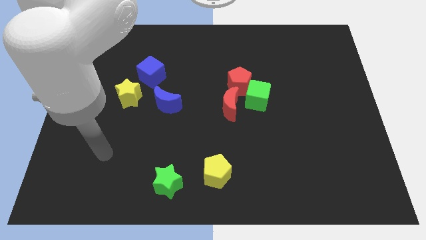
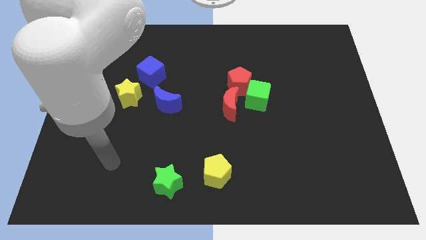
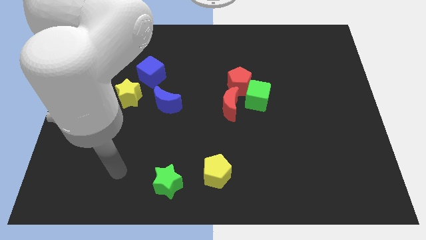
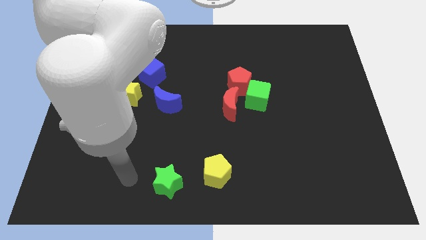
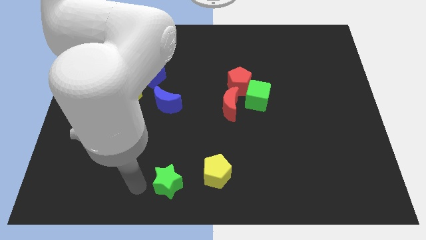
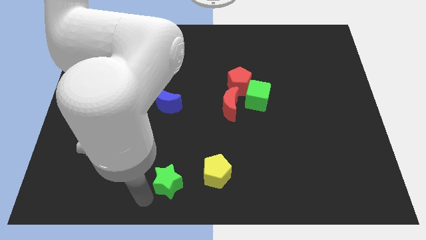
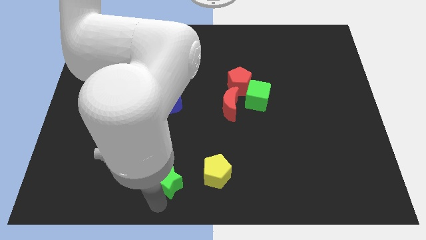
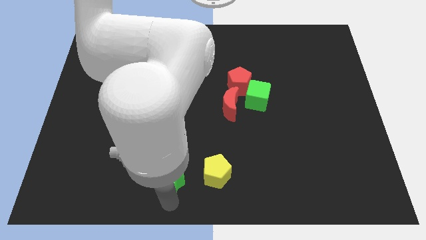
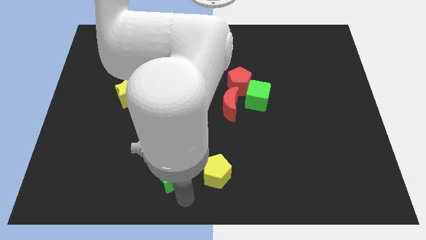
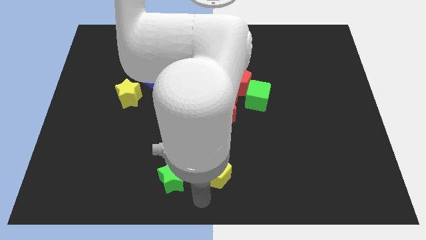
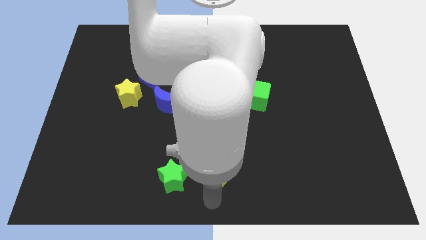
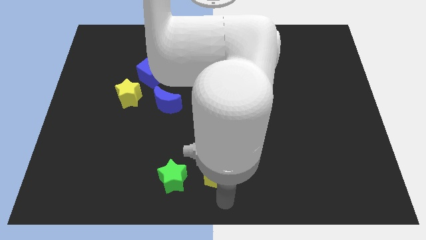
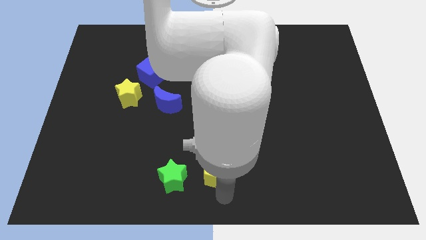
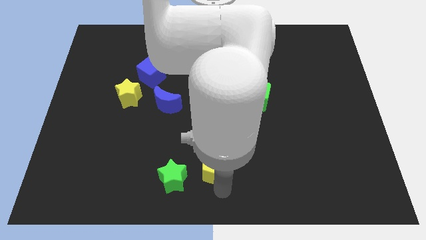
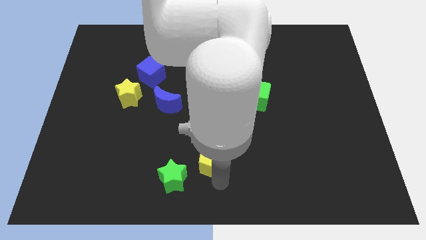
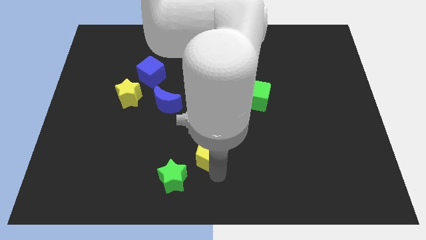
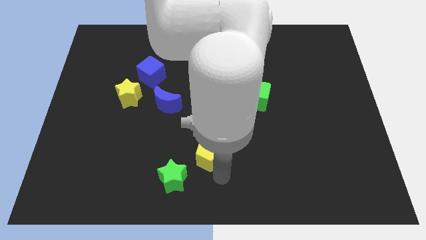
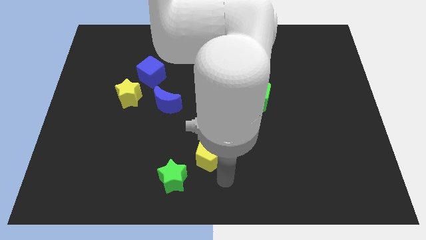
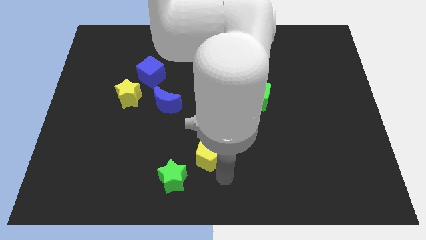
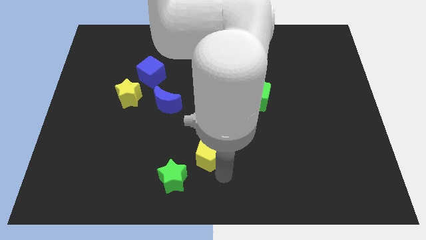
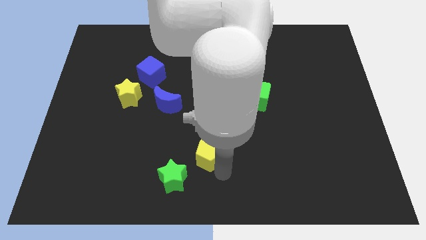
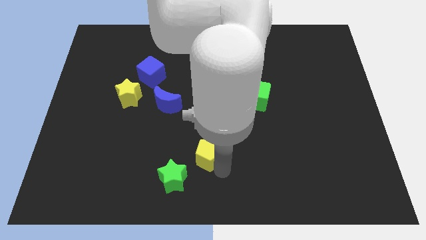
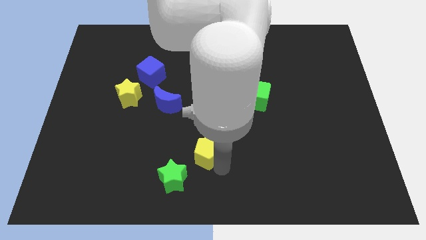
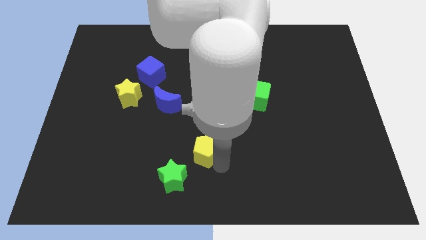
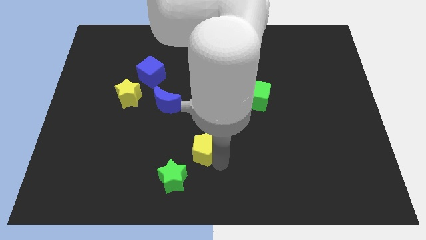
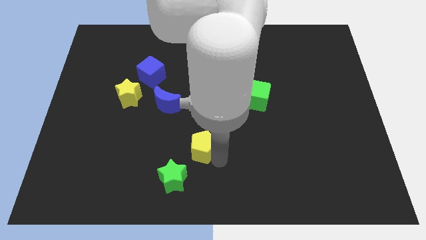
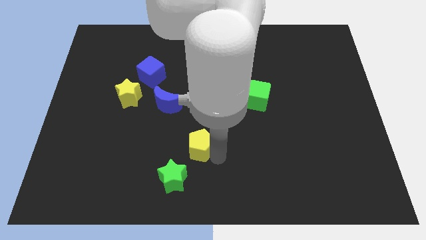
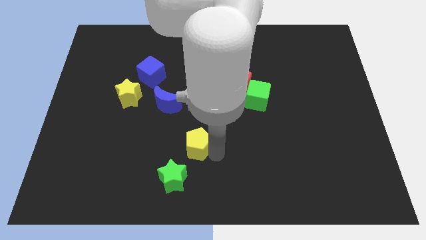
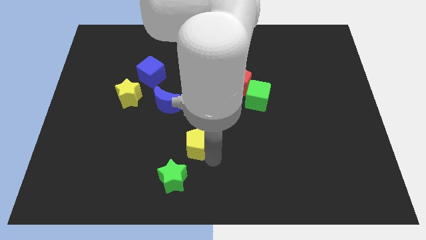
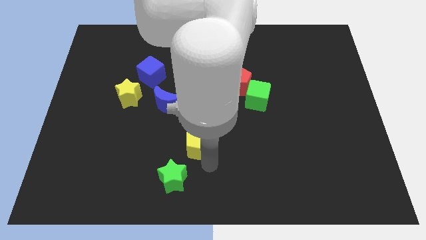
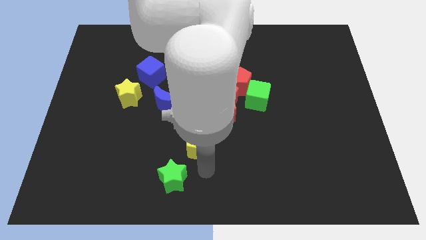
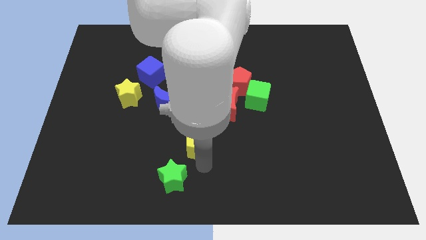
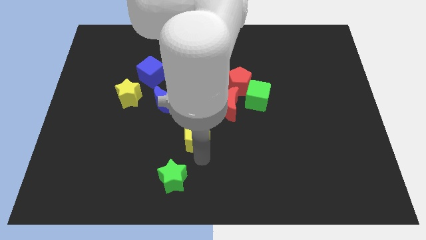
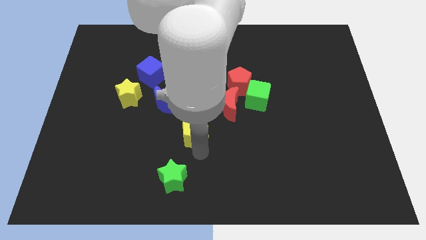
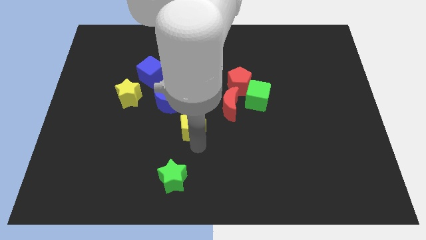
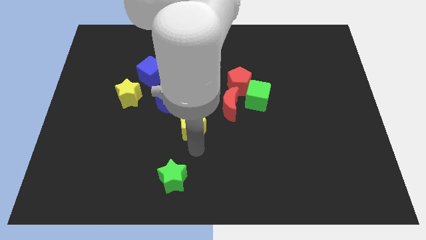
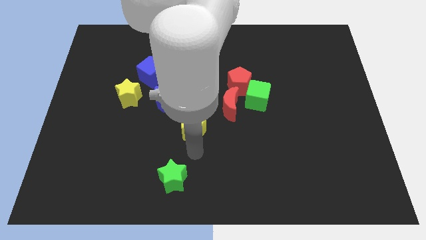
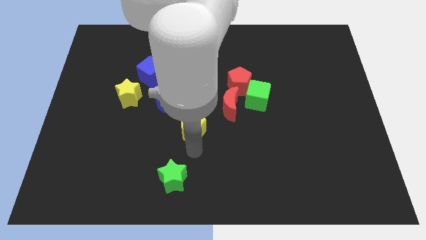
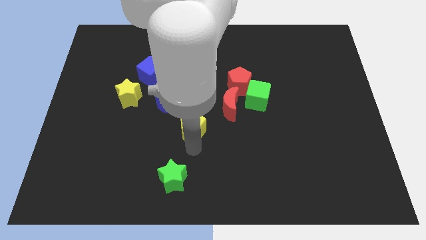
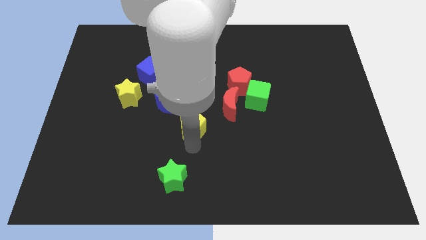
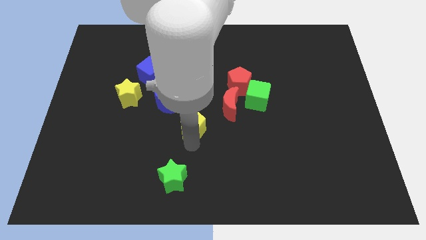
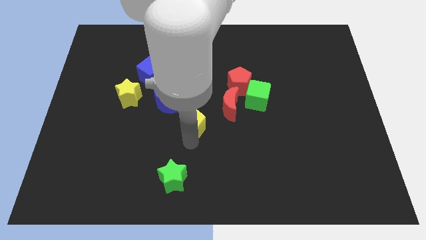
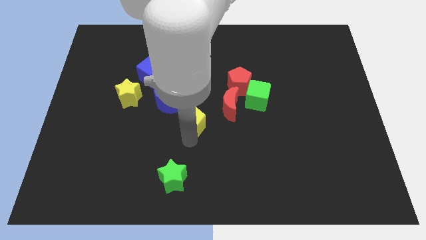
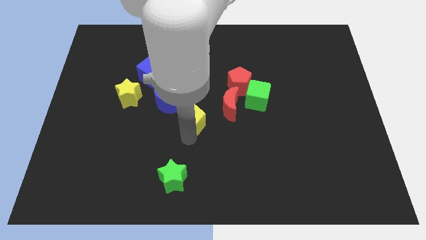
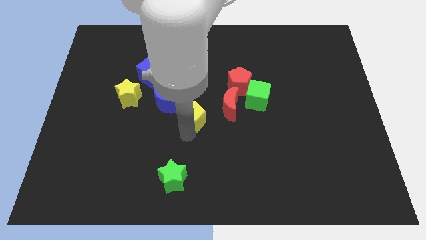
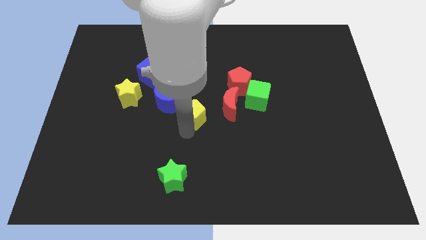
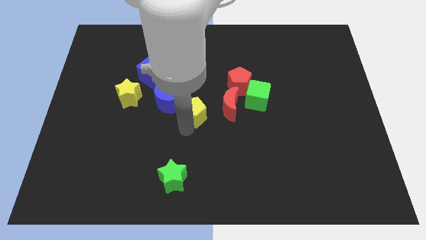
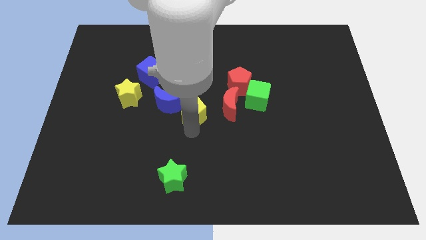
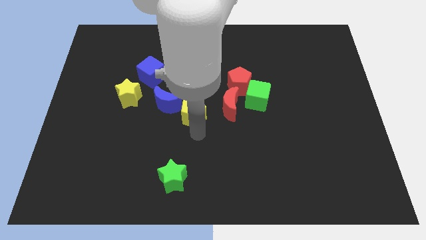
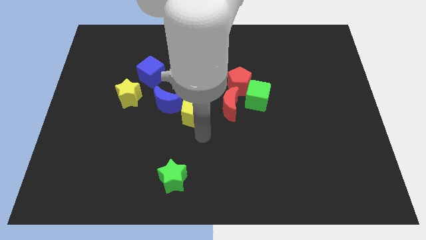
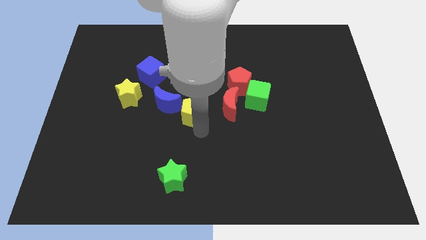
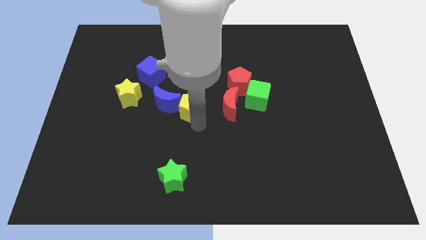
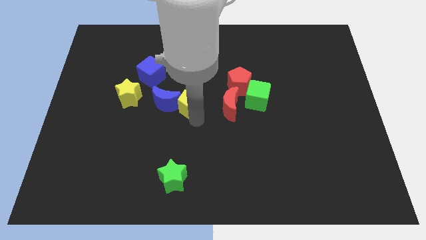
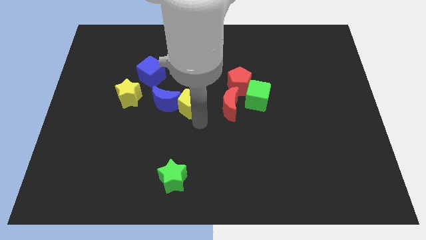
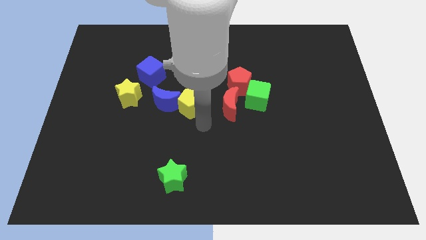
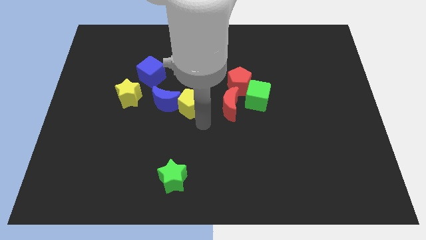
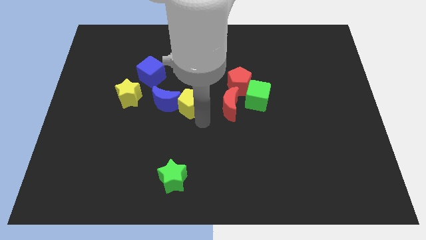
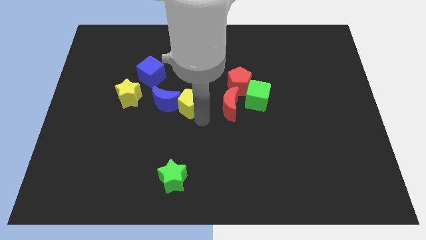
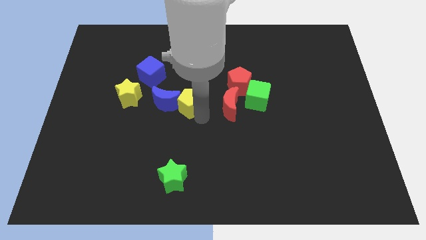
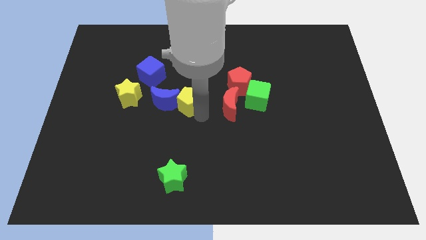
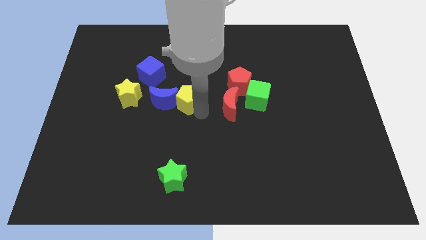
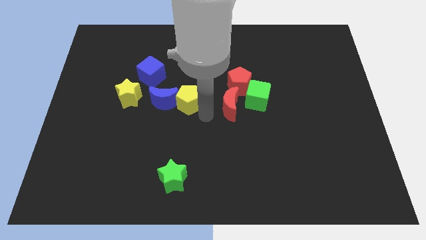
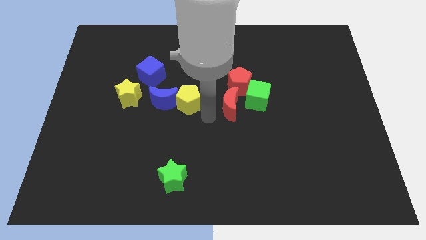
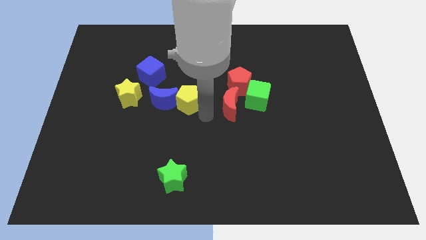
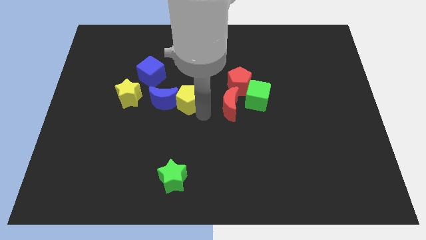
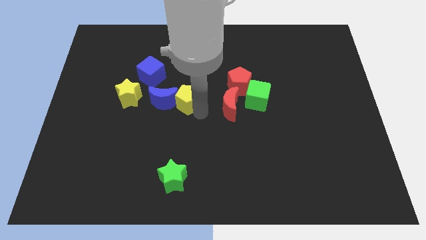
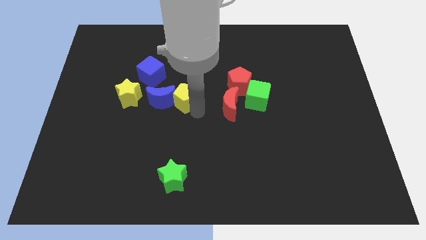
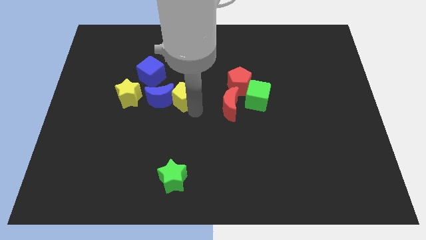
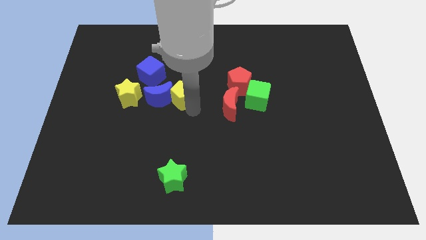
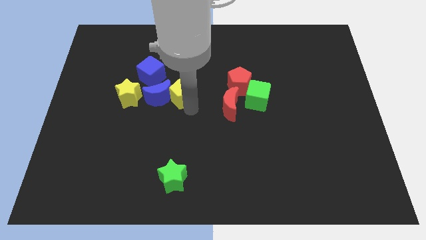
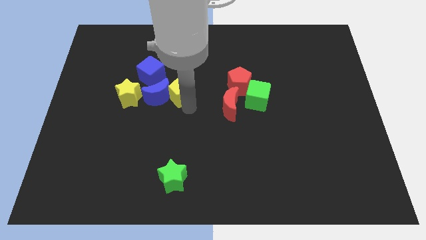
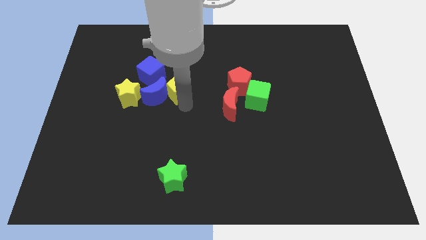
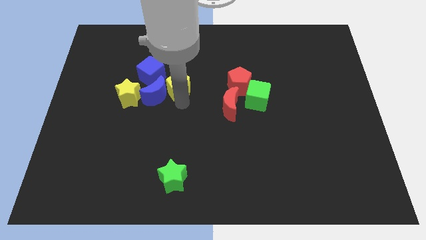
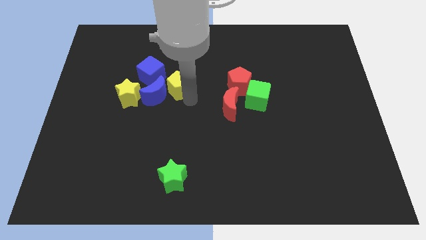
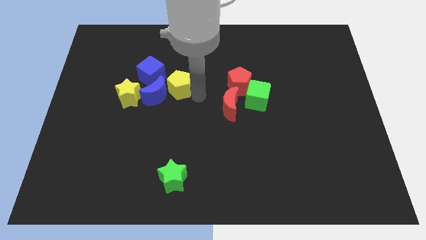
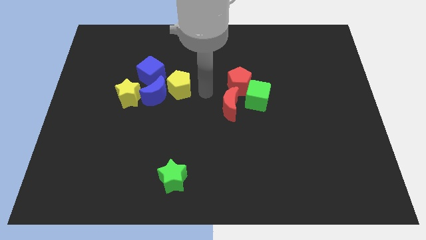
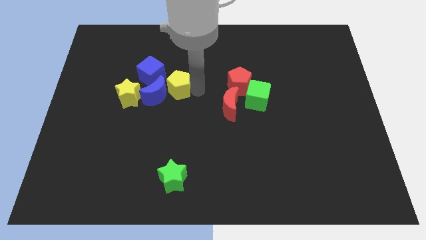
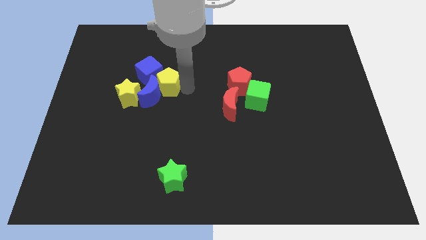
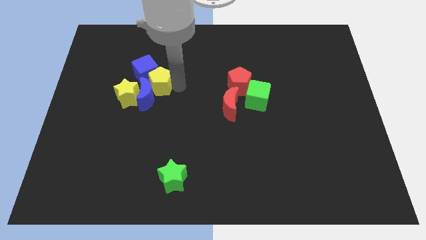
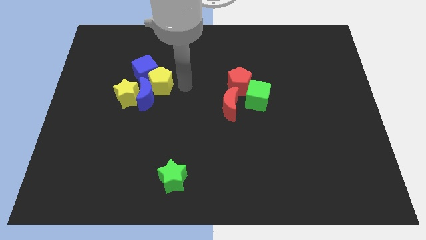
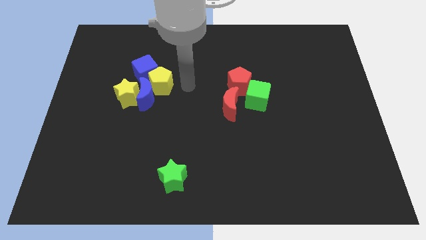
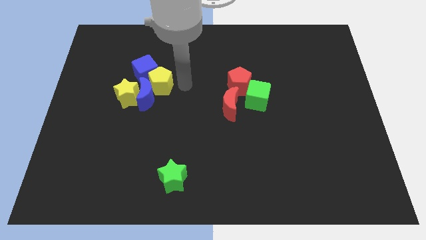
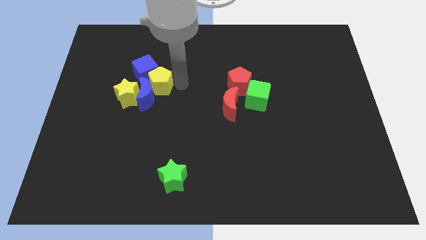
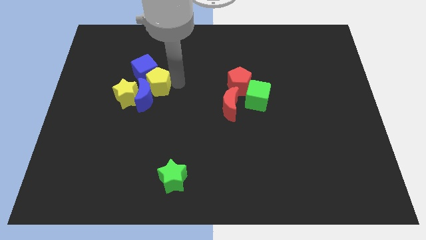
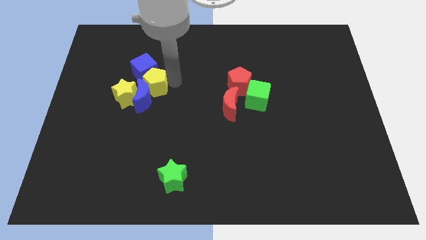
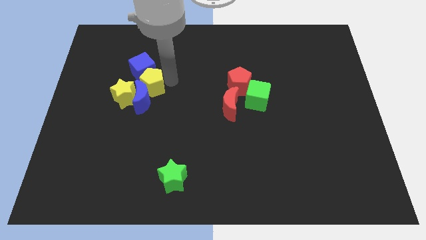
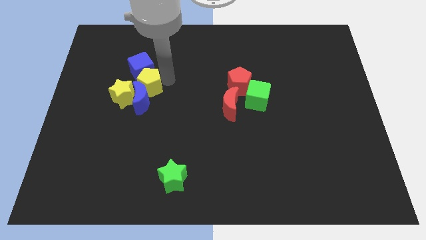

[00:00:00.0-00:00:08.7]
move the yellow pentagon diagonally up and to the left of the blue moon
